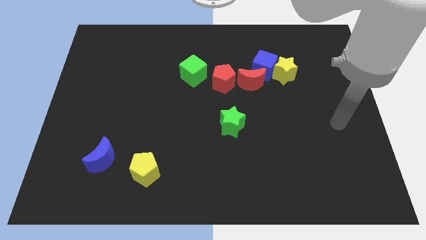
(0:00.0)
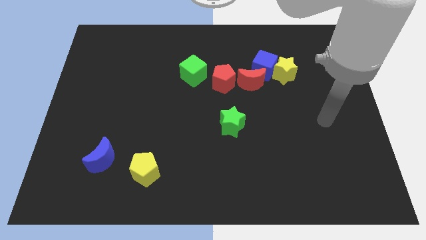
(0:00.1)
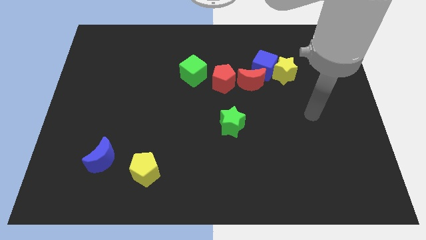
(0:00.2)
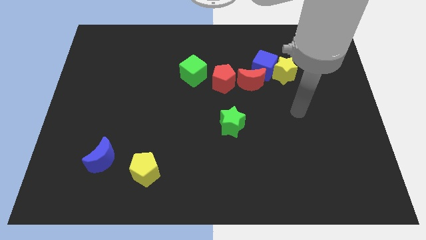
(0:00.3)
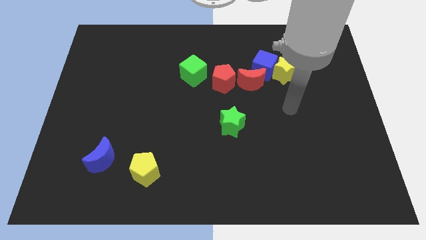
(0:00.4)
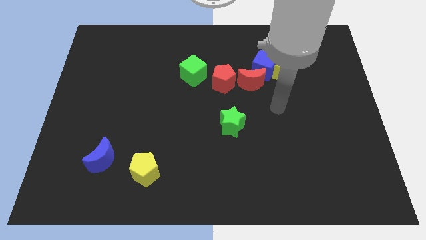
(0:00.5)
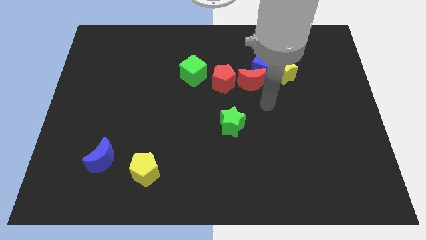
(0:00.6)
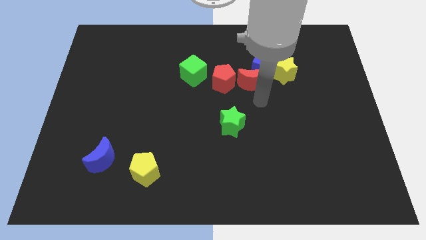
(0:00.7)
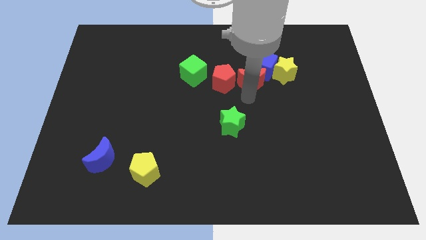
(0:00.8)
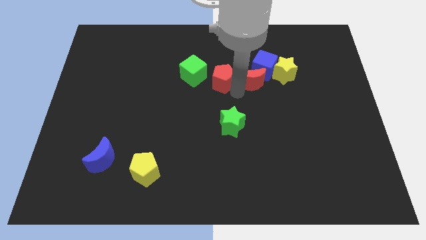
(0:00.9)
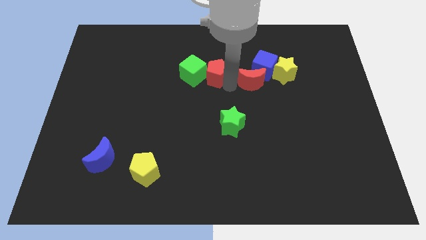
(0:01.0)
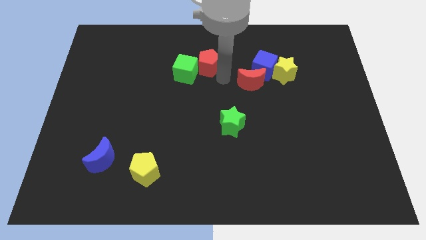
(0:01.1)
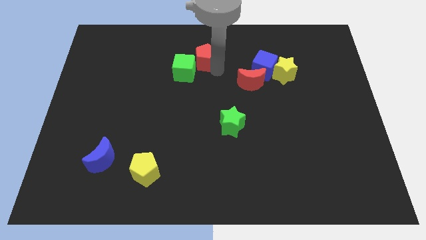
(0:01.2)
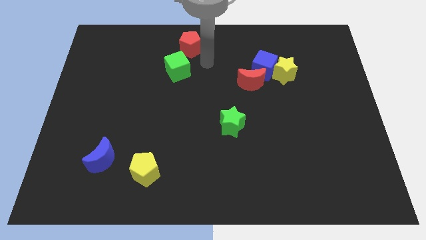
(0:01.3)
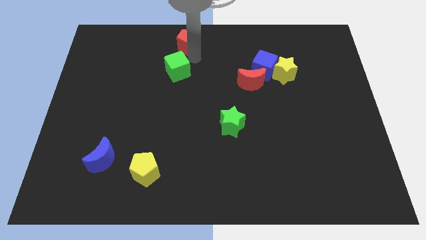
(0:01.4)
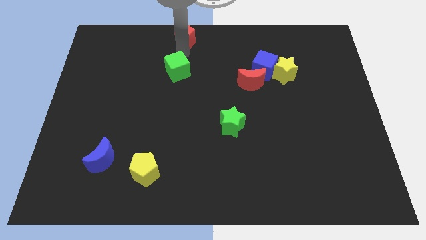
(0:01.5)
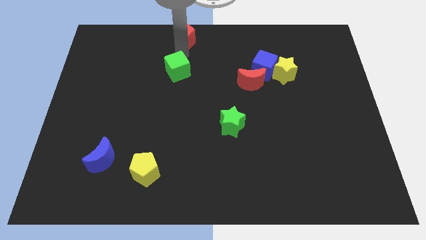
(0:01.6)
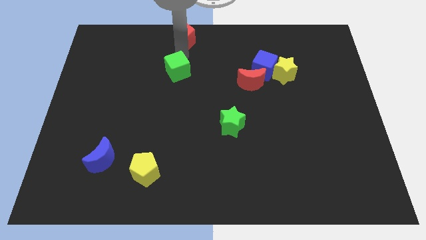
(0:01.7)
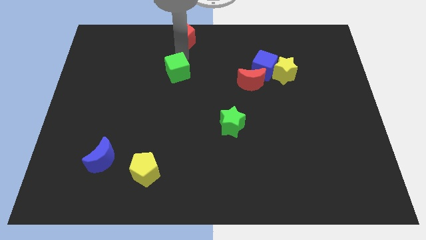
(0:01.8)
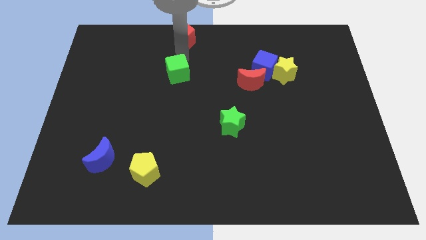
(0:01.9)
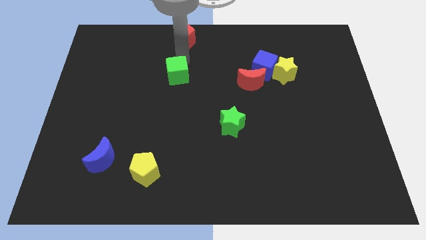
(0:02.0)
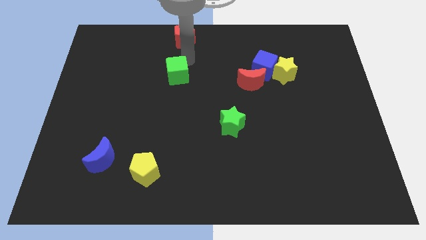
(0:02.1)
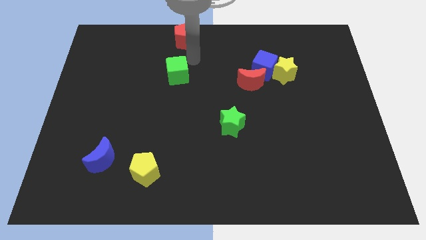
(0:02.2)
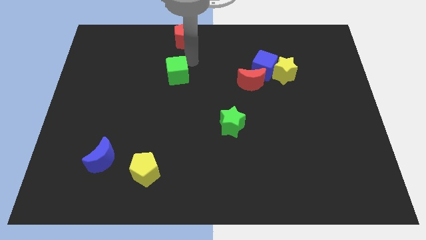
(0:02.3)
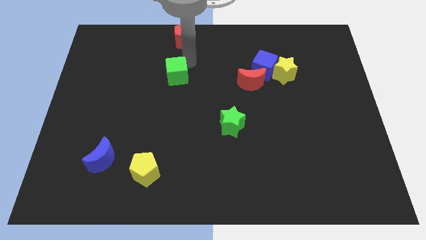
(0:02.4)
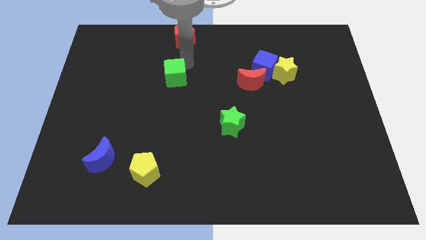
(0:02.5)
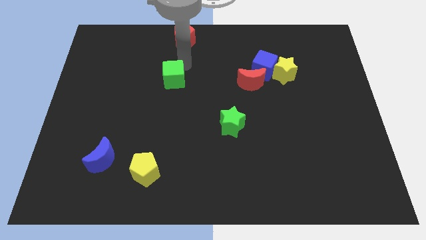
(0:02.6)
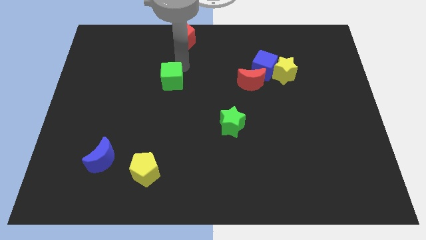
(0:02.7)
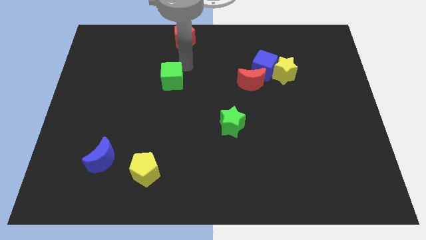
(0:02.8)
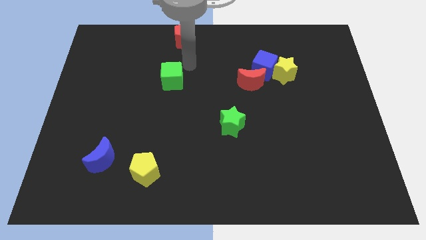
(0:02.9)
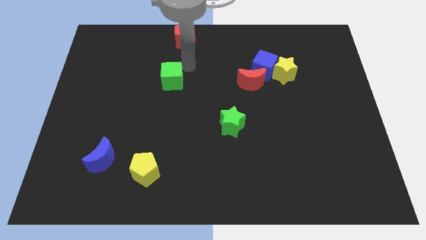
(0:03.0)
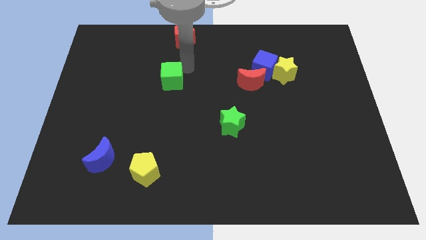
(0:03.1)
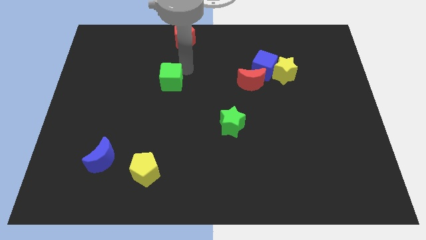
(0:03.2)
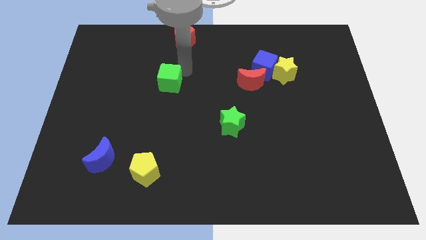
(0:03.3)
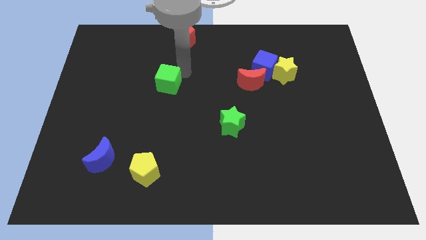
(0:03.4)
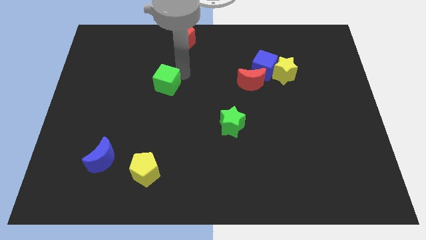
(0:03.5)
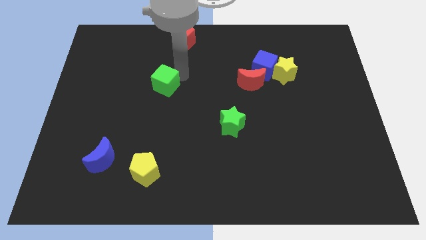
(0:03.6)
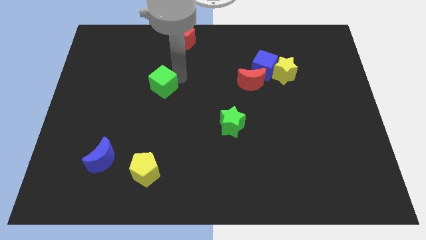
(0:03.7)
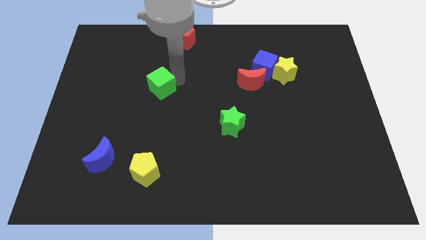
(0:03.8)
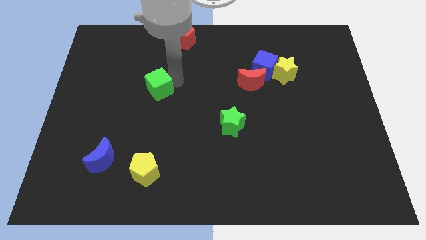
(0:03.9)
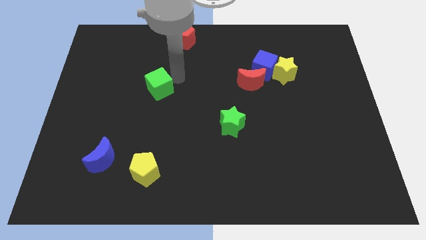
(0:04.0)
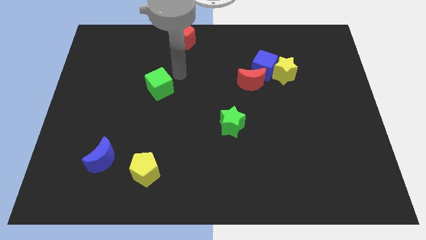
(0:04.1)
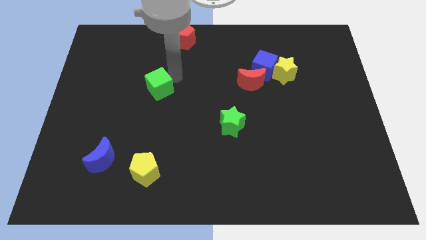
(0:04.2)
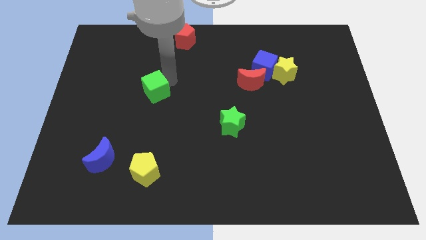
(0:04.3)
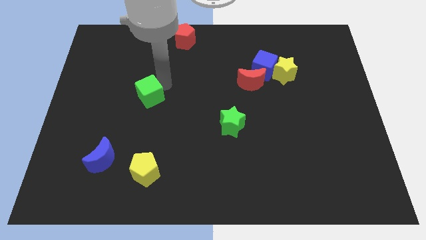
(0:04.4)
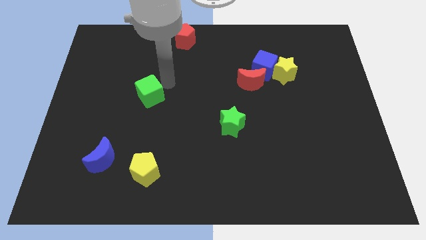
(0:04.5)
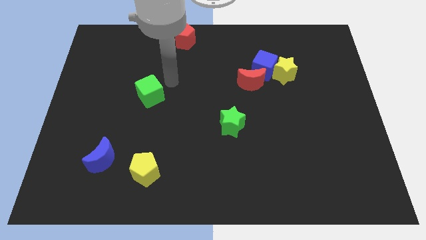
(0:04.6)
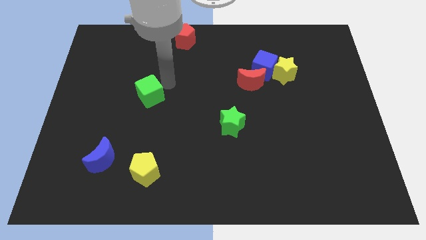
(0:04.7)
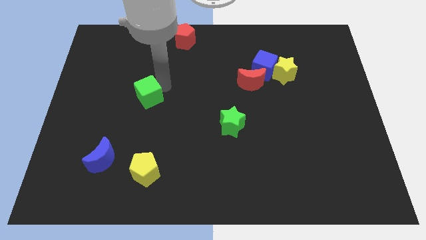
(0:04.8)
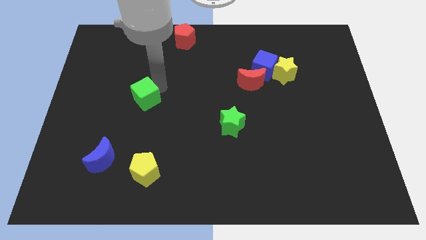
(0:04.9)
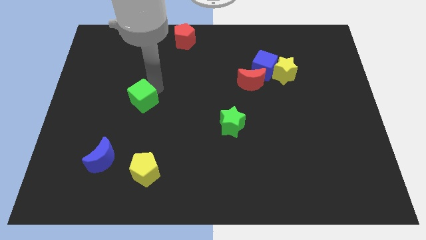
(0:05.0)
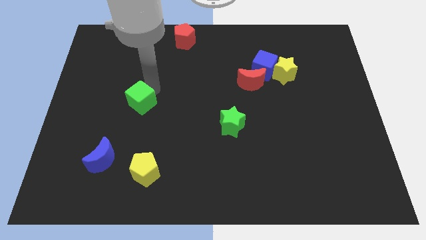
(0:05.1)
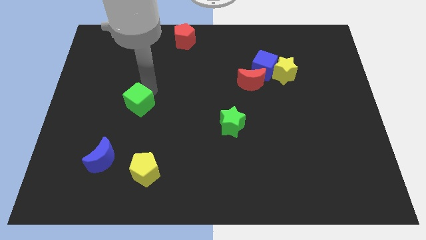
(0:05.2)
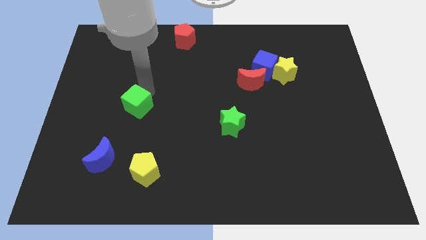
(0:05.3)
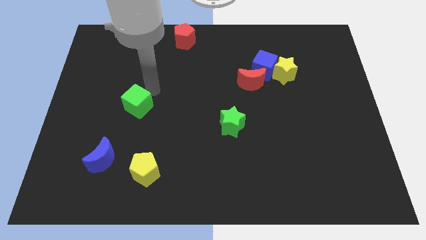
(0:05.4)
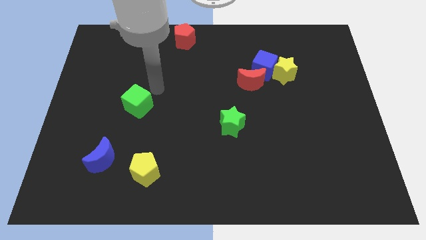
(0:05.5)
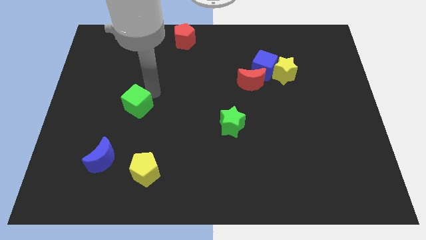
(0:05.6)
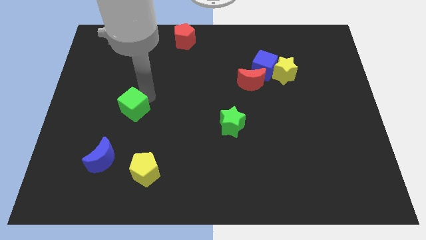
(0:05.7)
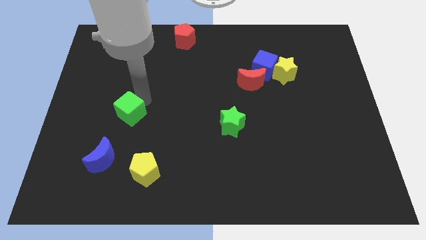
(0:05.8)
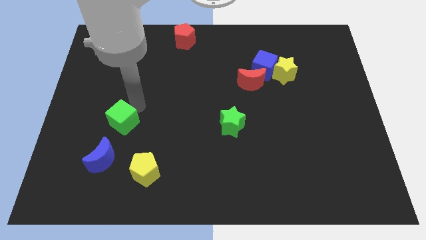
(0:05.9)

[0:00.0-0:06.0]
move the green cube diagonally down and to the left

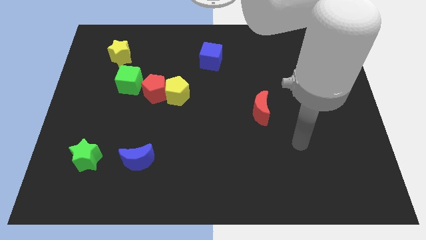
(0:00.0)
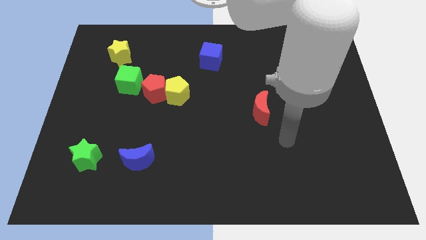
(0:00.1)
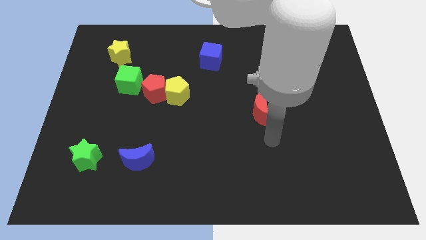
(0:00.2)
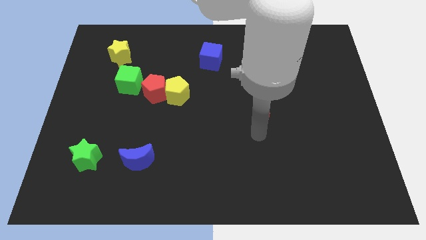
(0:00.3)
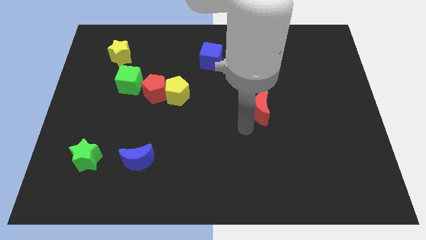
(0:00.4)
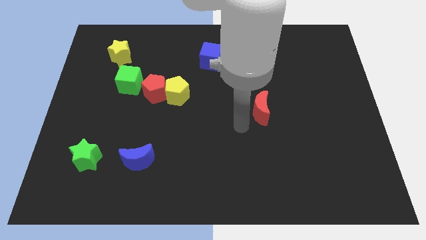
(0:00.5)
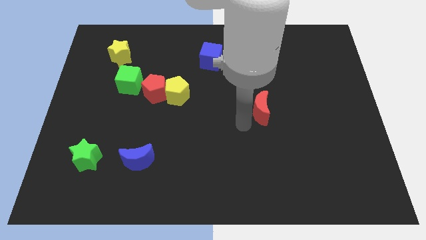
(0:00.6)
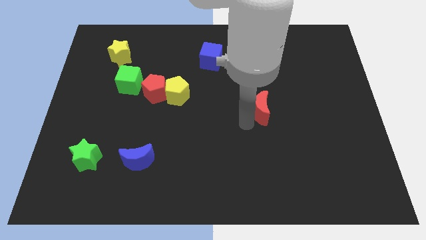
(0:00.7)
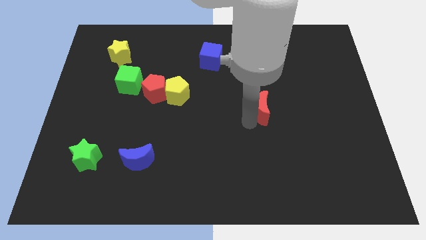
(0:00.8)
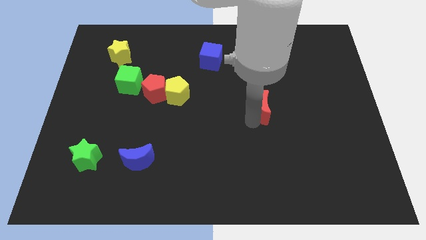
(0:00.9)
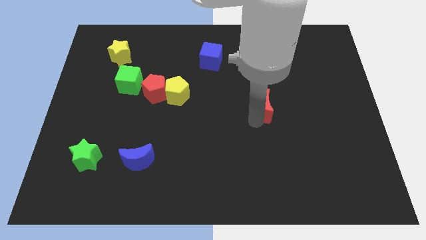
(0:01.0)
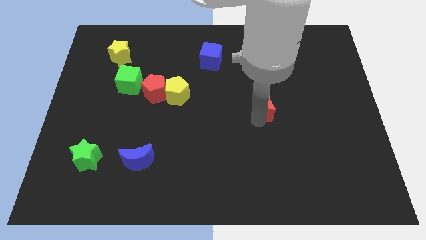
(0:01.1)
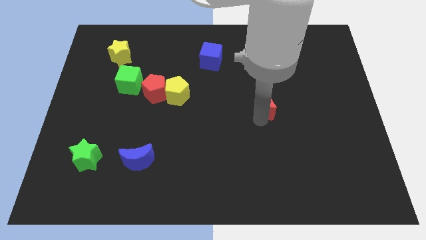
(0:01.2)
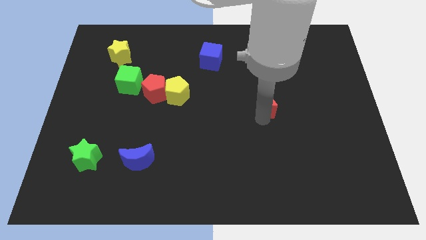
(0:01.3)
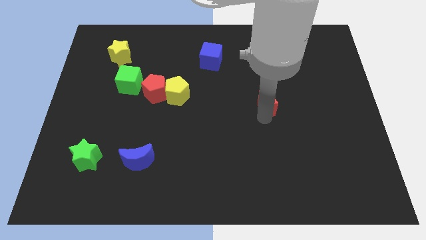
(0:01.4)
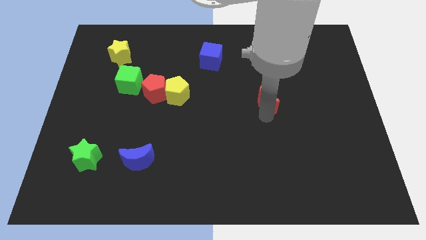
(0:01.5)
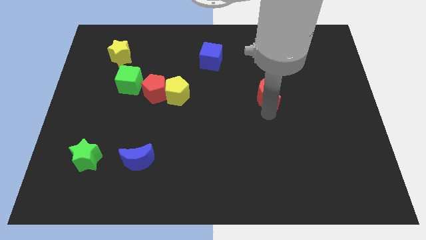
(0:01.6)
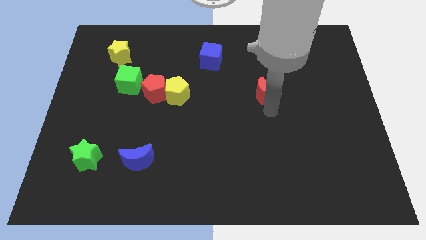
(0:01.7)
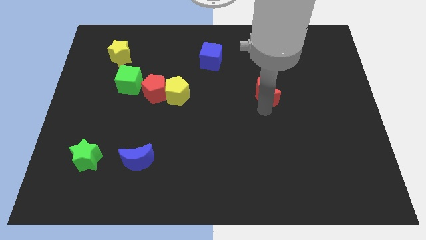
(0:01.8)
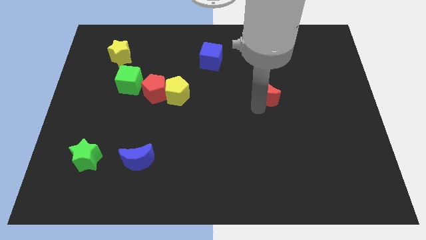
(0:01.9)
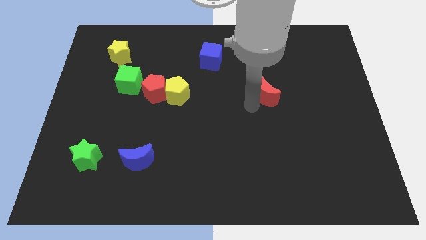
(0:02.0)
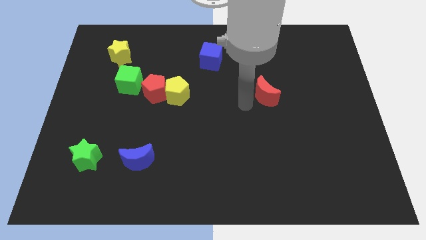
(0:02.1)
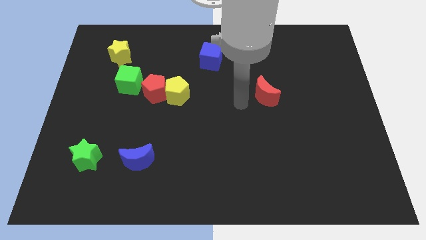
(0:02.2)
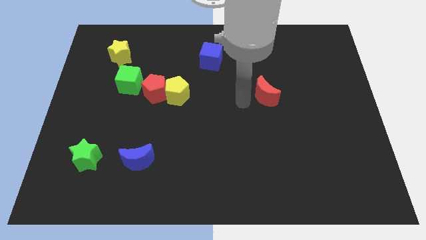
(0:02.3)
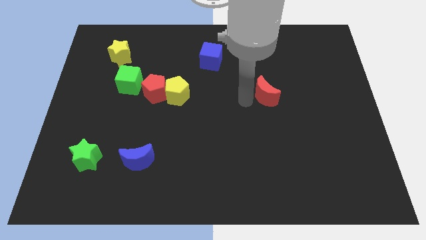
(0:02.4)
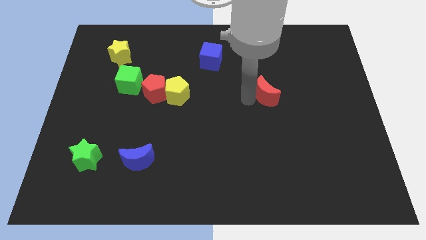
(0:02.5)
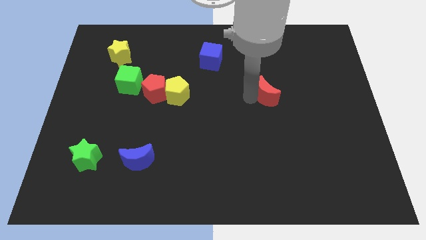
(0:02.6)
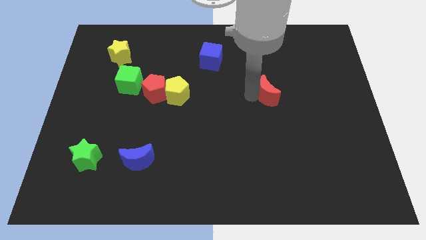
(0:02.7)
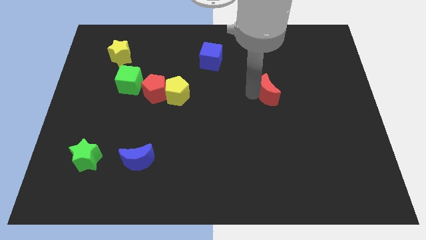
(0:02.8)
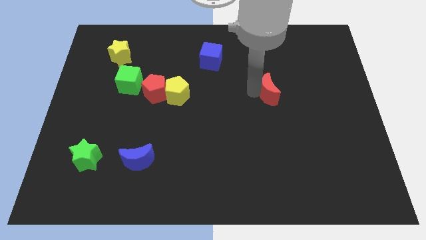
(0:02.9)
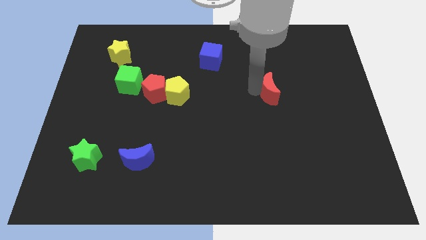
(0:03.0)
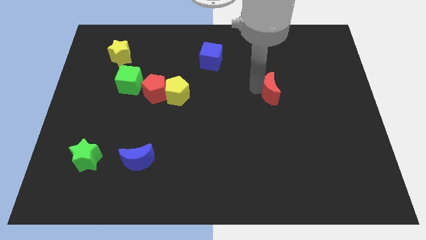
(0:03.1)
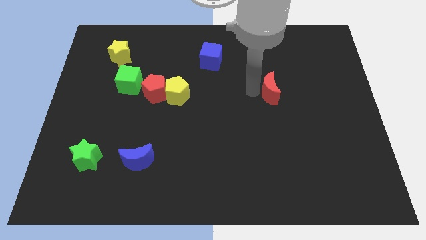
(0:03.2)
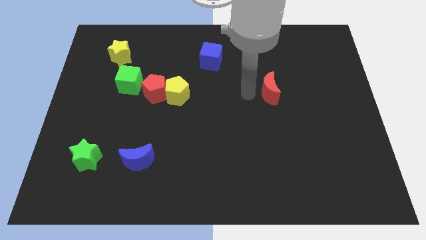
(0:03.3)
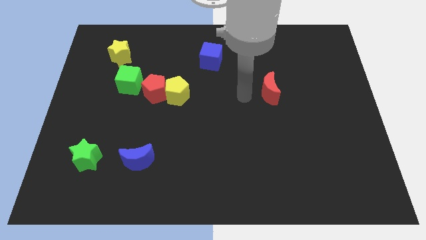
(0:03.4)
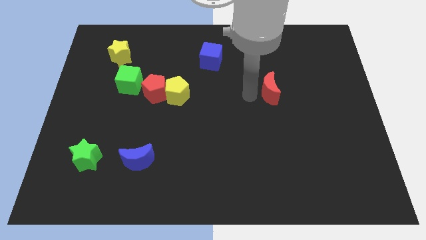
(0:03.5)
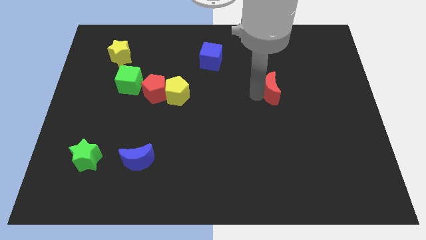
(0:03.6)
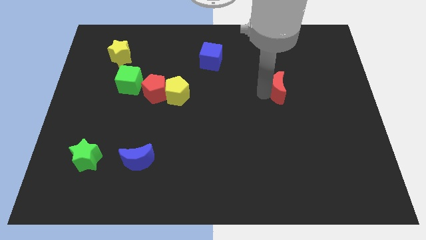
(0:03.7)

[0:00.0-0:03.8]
slide the red moon slightly up and right diagonally
